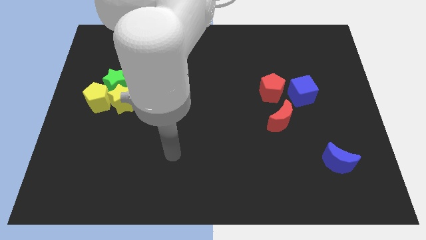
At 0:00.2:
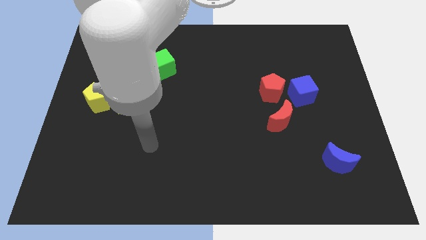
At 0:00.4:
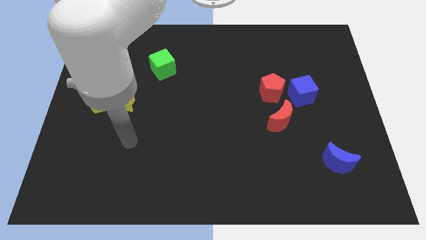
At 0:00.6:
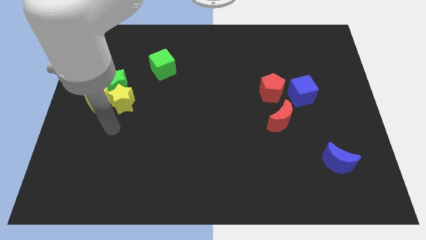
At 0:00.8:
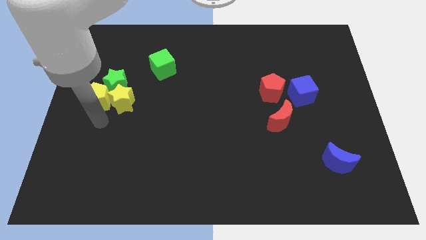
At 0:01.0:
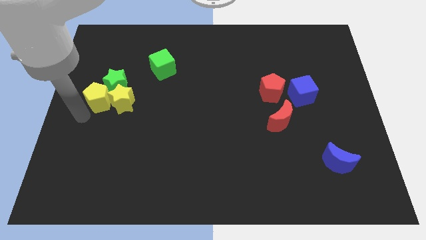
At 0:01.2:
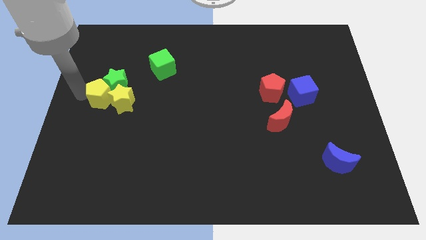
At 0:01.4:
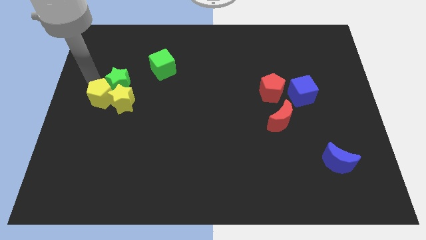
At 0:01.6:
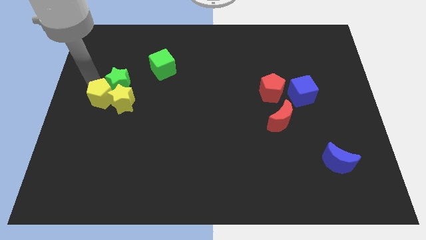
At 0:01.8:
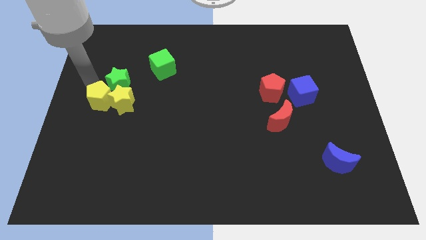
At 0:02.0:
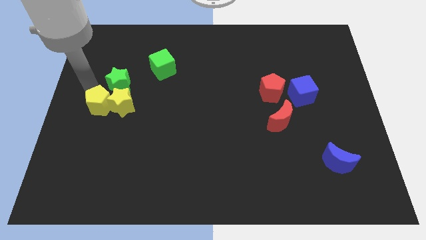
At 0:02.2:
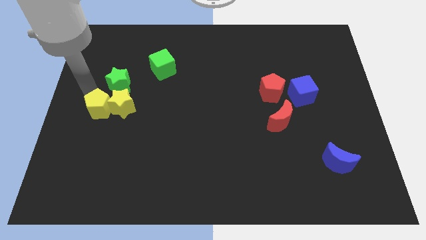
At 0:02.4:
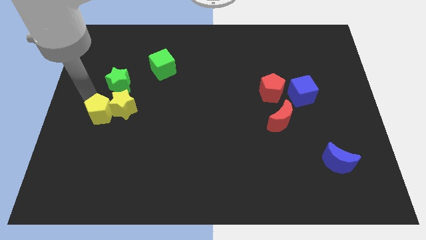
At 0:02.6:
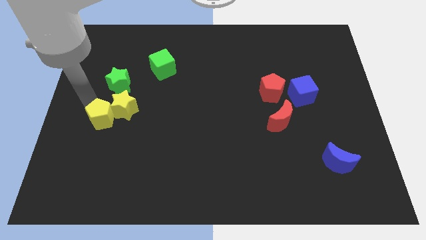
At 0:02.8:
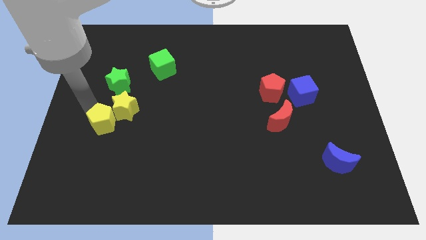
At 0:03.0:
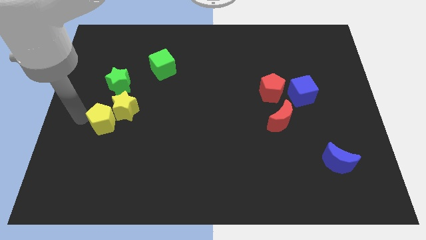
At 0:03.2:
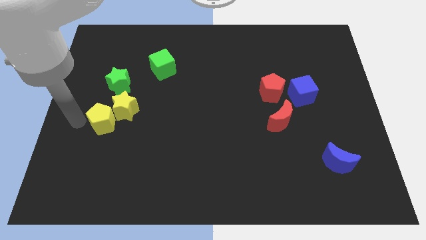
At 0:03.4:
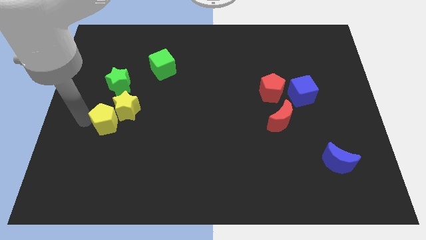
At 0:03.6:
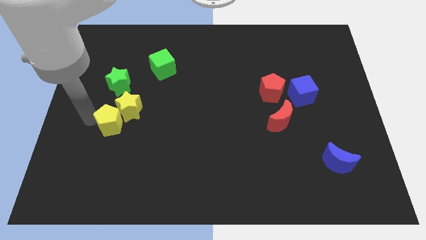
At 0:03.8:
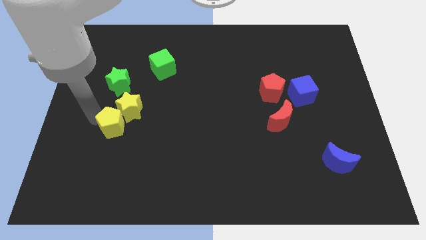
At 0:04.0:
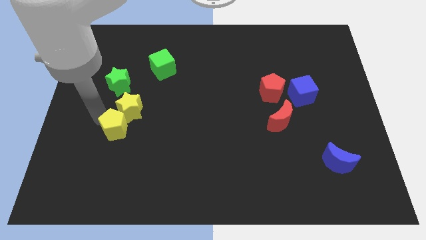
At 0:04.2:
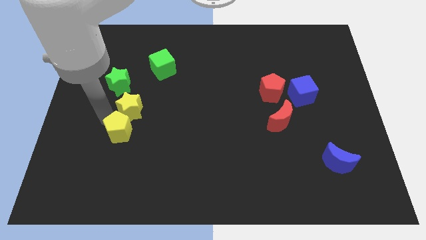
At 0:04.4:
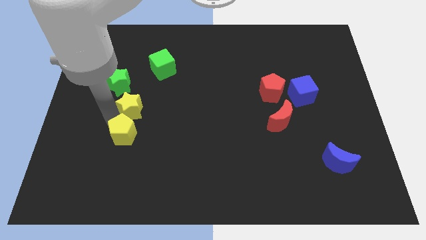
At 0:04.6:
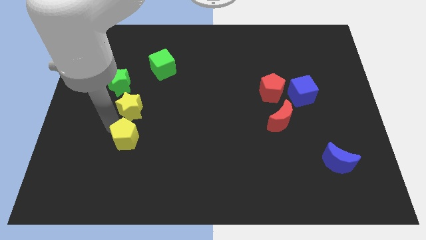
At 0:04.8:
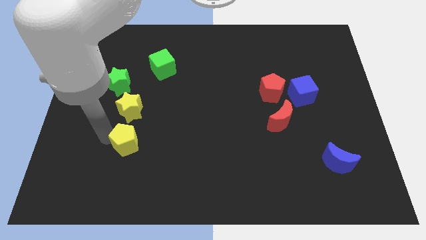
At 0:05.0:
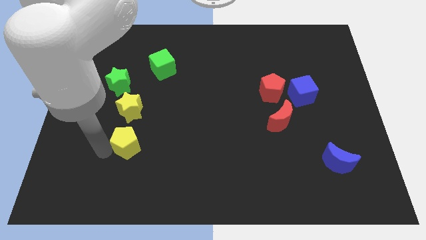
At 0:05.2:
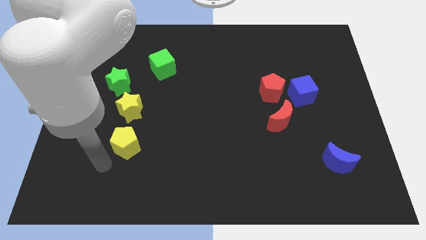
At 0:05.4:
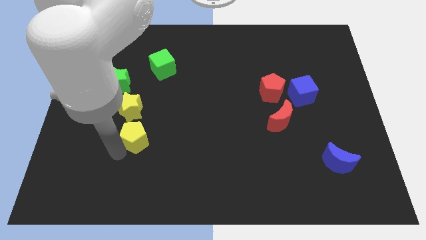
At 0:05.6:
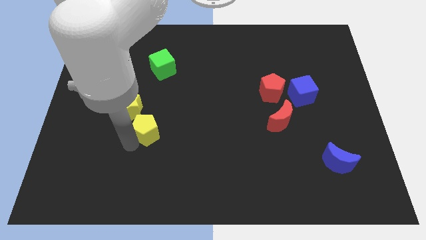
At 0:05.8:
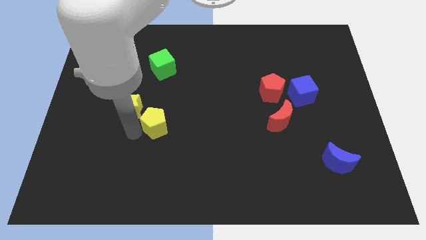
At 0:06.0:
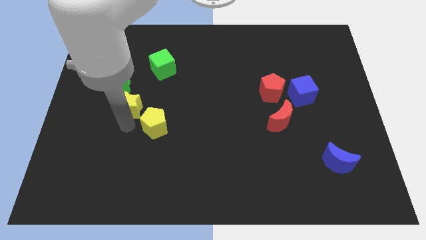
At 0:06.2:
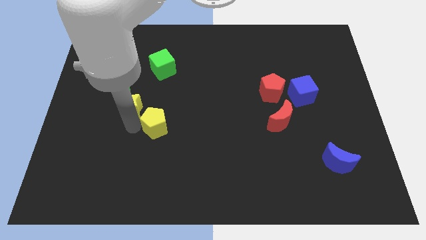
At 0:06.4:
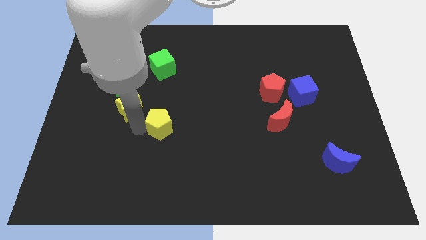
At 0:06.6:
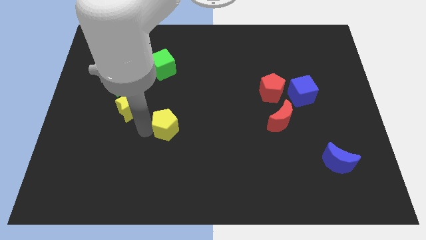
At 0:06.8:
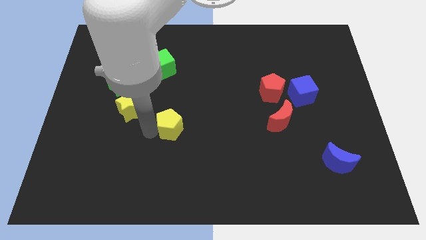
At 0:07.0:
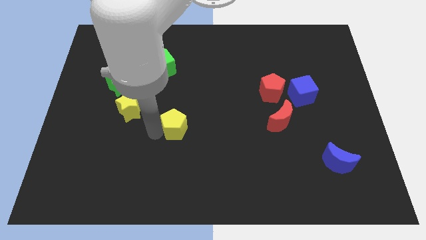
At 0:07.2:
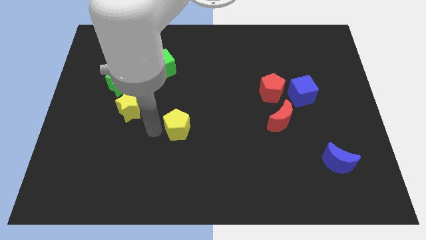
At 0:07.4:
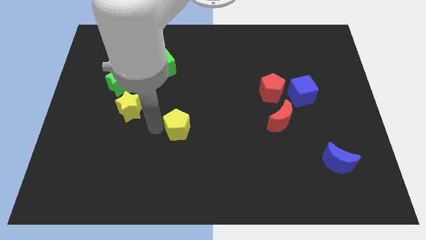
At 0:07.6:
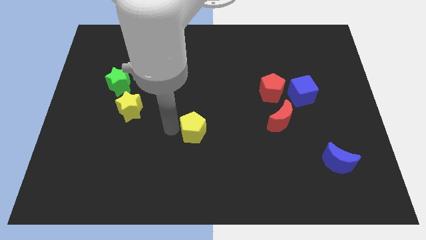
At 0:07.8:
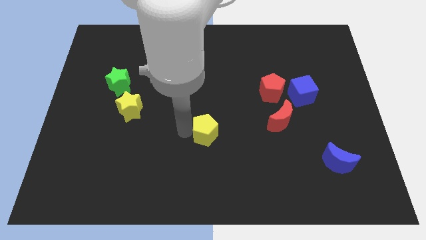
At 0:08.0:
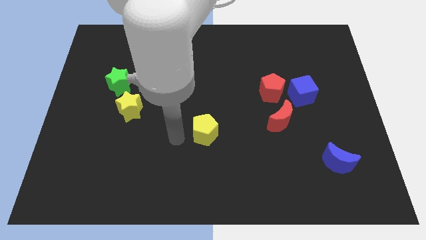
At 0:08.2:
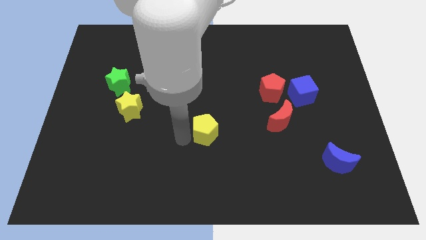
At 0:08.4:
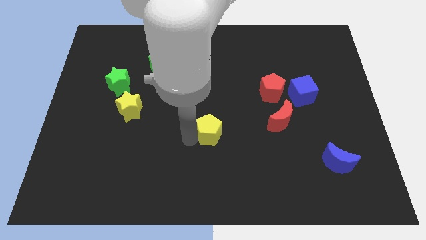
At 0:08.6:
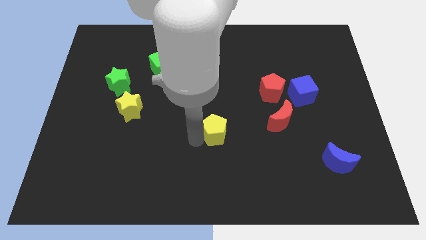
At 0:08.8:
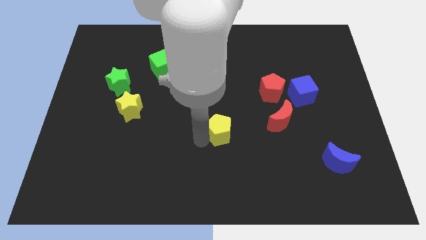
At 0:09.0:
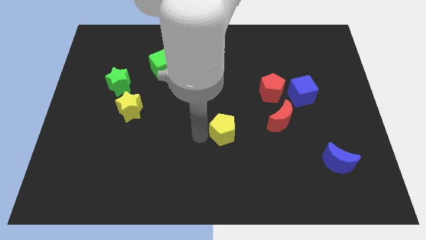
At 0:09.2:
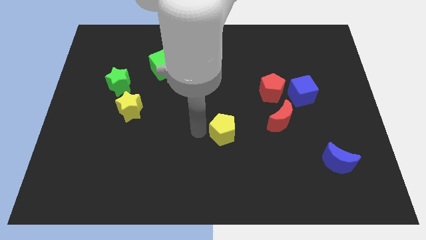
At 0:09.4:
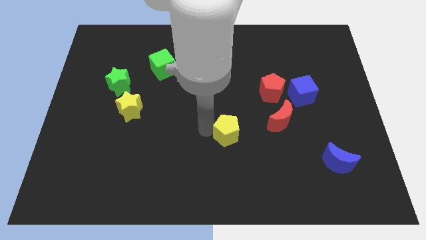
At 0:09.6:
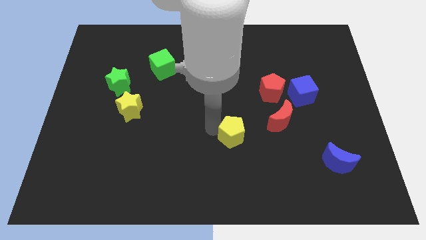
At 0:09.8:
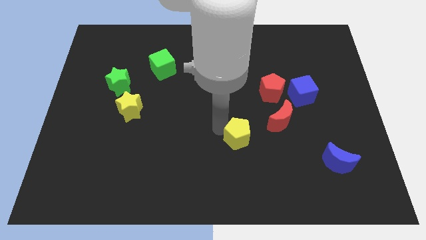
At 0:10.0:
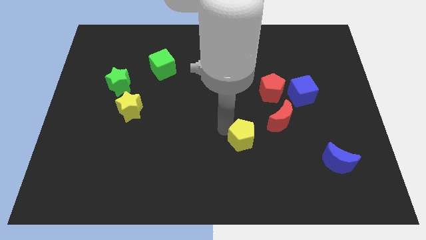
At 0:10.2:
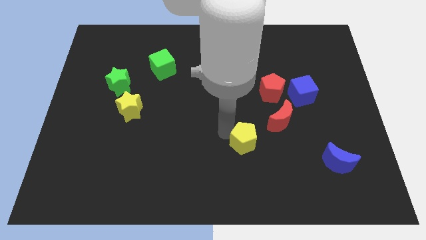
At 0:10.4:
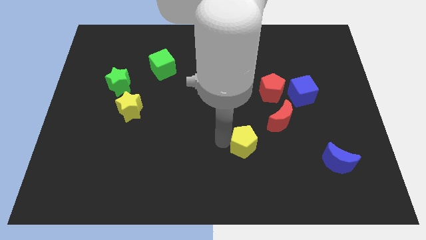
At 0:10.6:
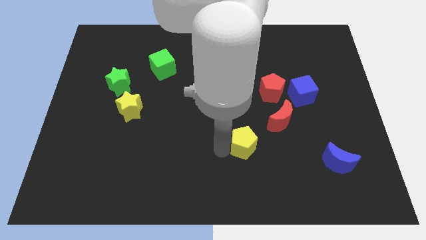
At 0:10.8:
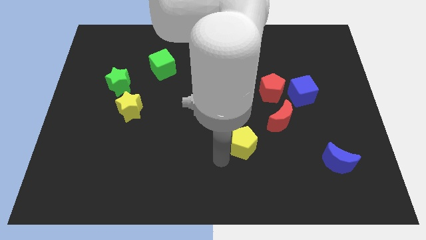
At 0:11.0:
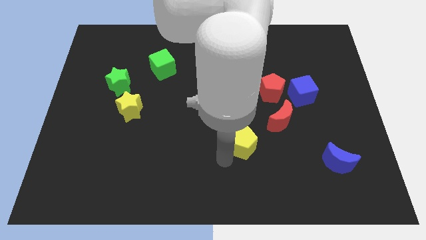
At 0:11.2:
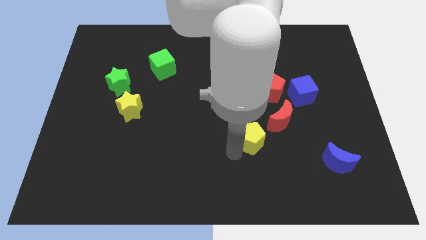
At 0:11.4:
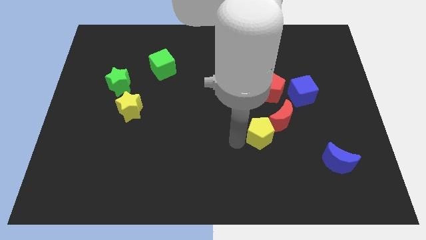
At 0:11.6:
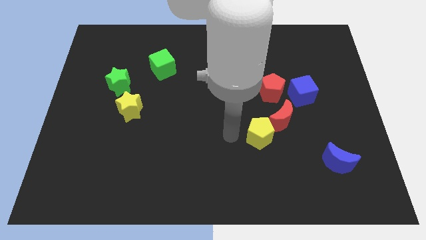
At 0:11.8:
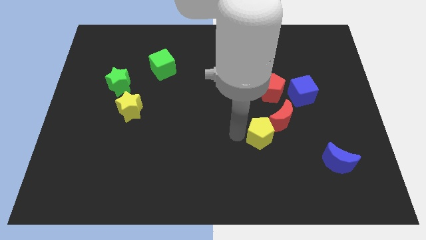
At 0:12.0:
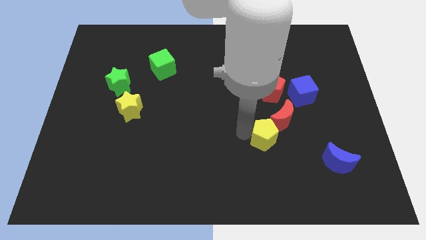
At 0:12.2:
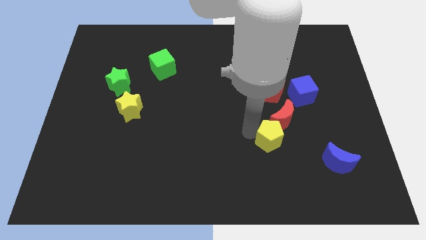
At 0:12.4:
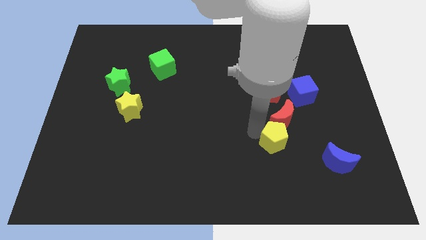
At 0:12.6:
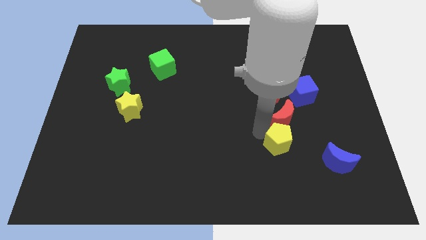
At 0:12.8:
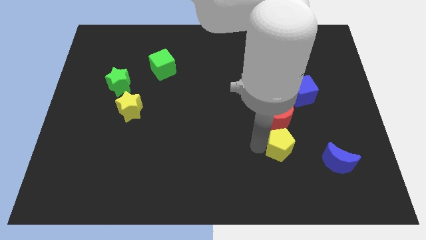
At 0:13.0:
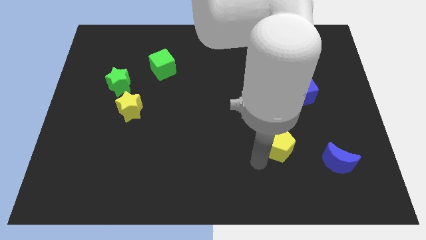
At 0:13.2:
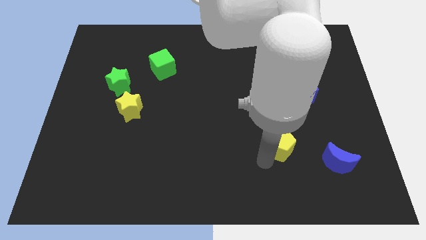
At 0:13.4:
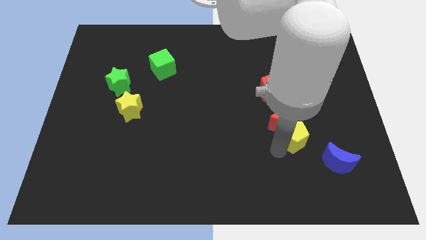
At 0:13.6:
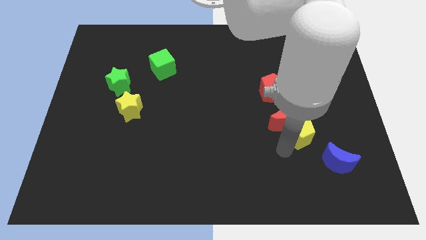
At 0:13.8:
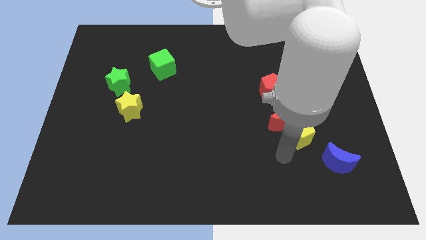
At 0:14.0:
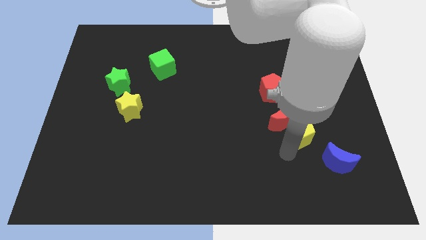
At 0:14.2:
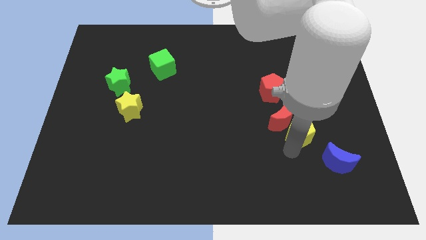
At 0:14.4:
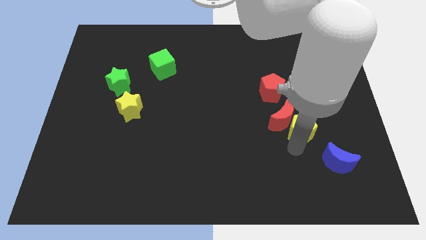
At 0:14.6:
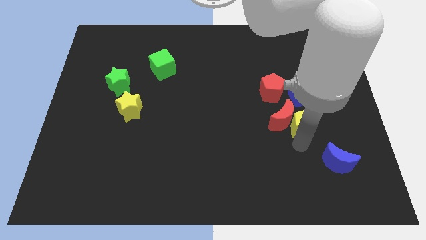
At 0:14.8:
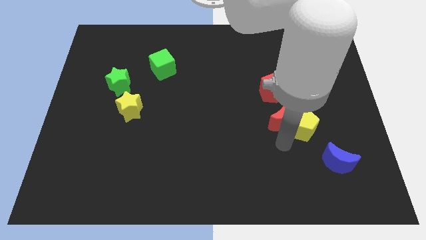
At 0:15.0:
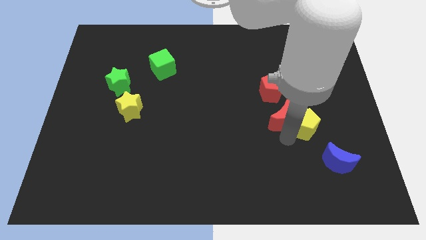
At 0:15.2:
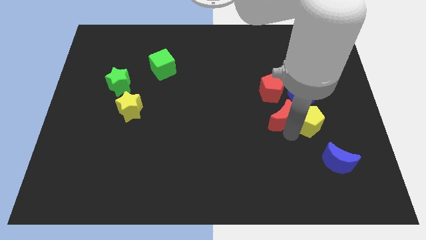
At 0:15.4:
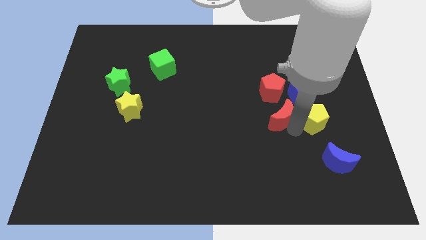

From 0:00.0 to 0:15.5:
put the yellow pentagon diagonally down and to the right of the blue cube
